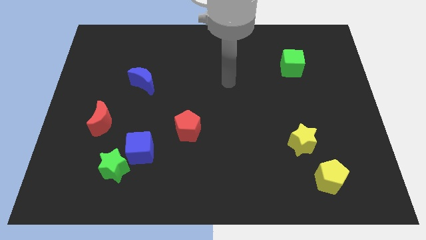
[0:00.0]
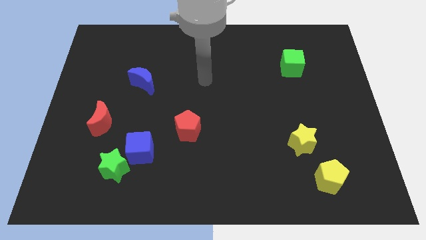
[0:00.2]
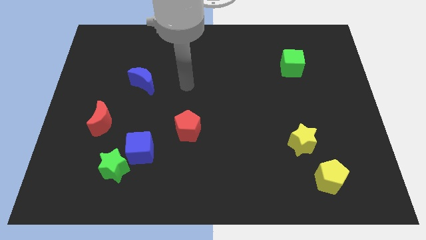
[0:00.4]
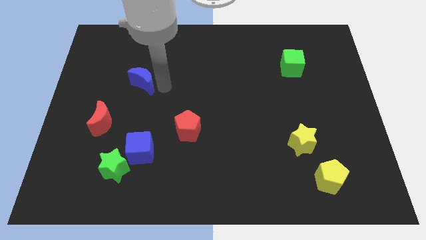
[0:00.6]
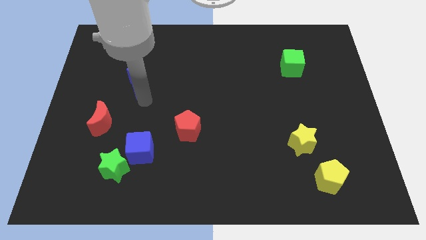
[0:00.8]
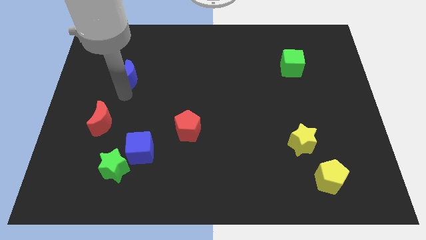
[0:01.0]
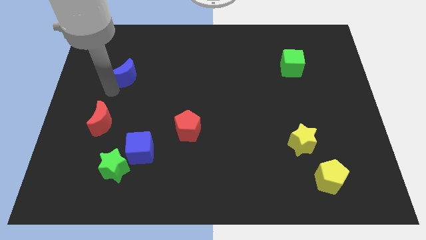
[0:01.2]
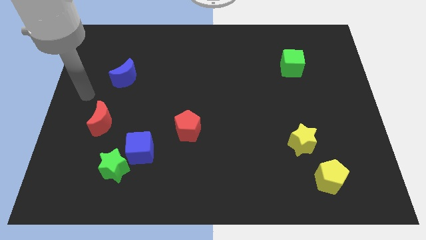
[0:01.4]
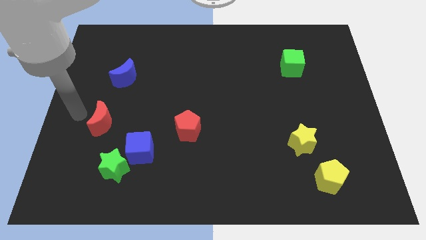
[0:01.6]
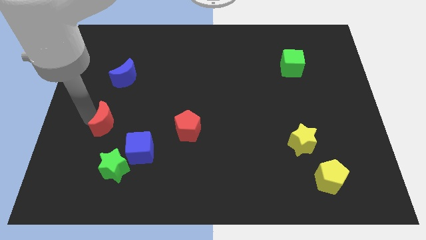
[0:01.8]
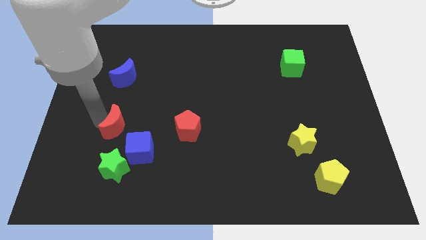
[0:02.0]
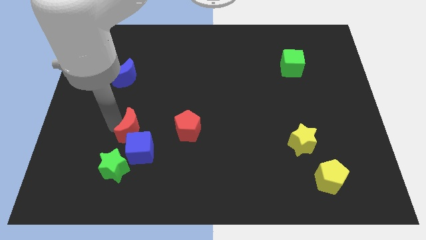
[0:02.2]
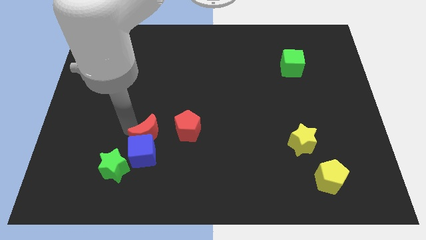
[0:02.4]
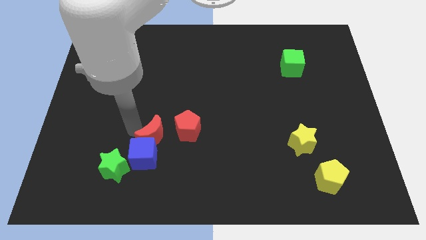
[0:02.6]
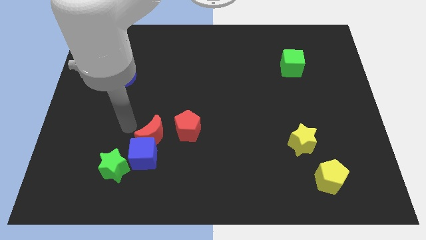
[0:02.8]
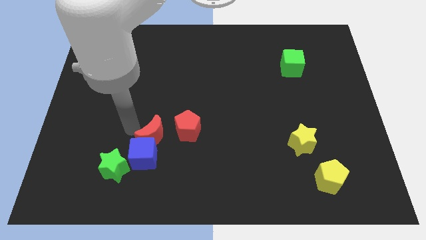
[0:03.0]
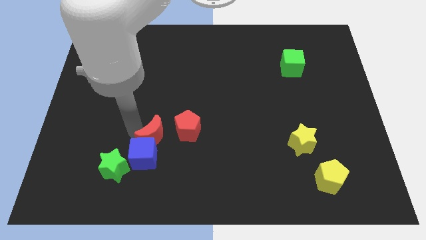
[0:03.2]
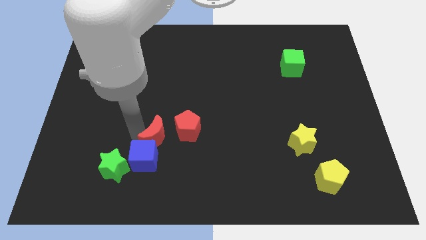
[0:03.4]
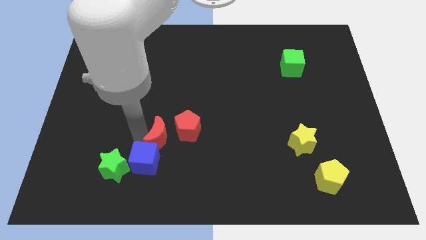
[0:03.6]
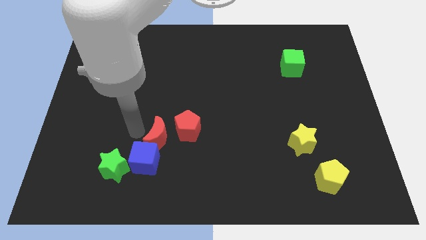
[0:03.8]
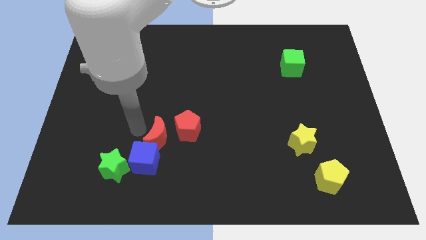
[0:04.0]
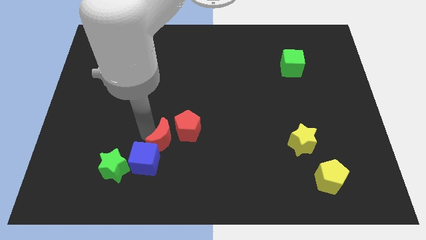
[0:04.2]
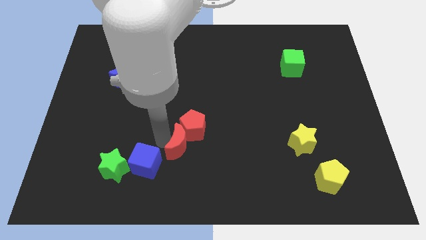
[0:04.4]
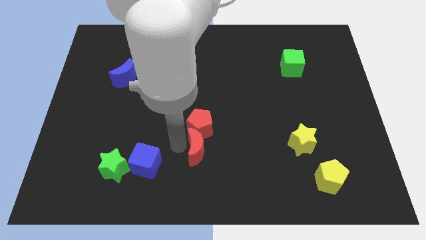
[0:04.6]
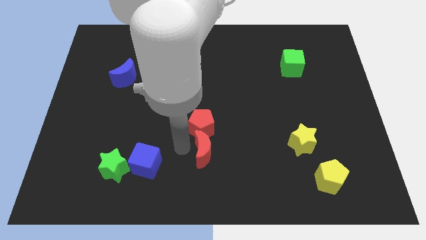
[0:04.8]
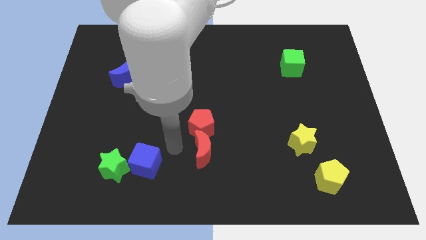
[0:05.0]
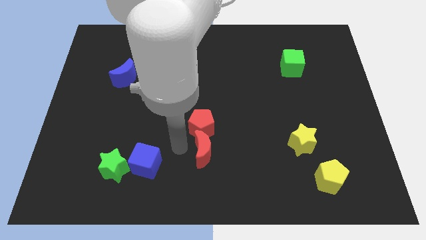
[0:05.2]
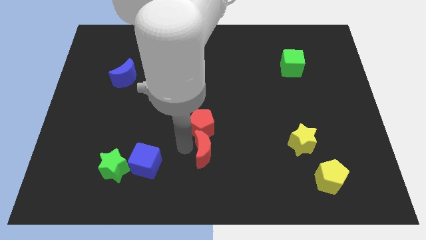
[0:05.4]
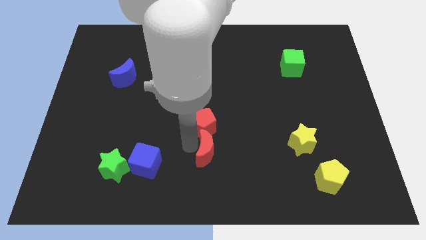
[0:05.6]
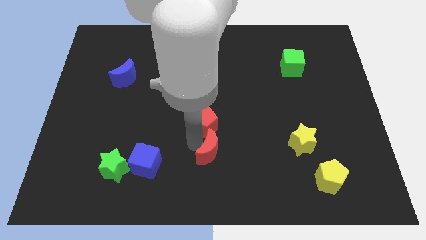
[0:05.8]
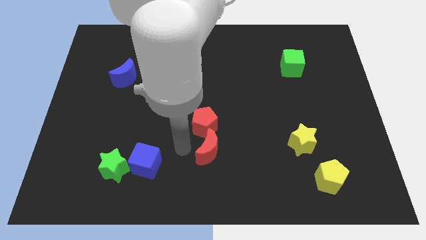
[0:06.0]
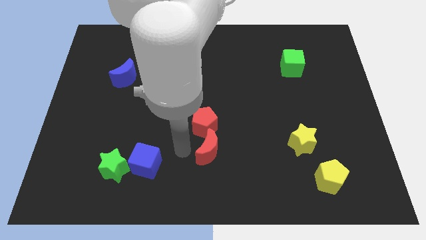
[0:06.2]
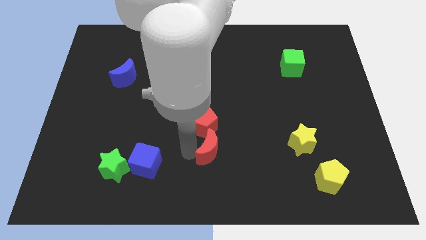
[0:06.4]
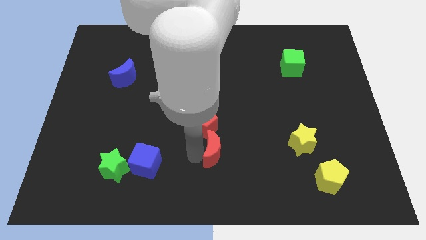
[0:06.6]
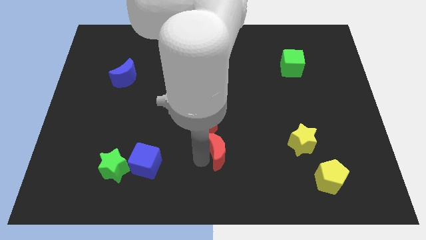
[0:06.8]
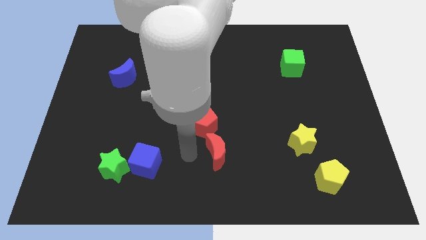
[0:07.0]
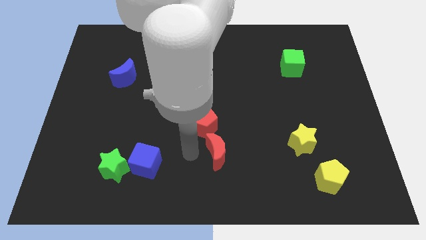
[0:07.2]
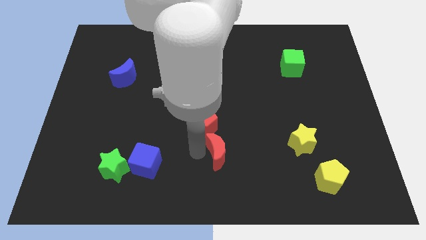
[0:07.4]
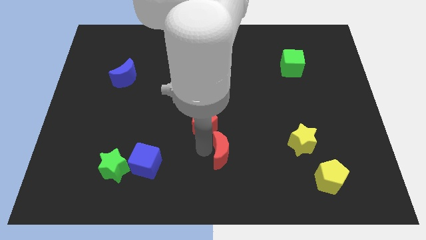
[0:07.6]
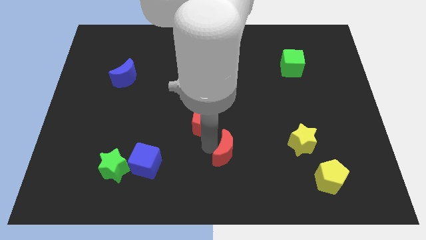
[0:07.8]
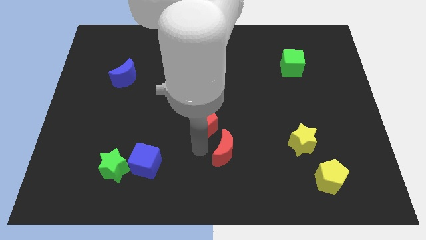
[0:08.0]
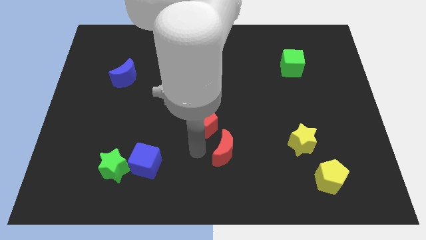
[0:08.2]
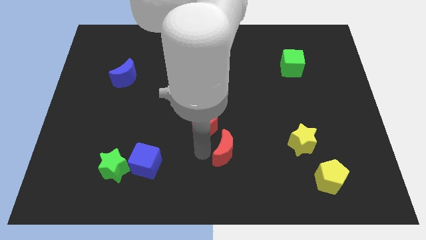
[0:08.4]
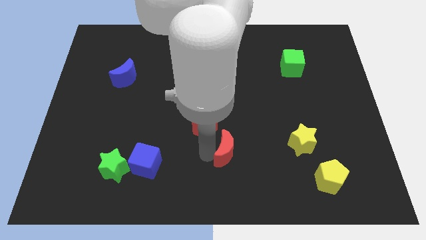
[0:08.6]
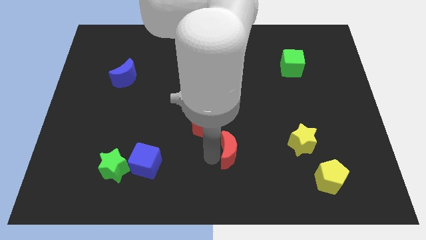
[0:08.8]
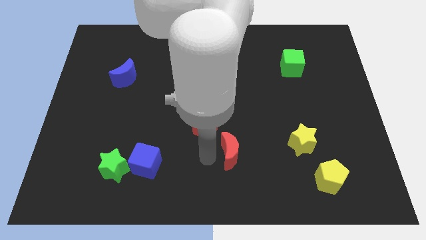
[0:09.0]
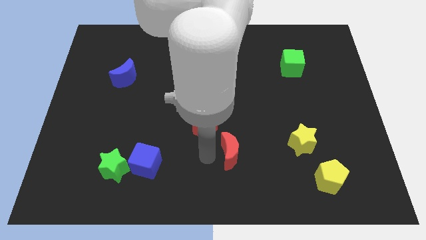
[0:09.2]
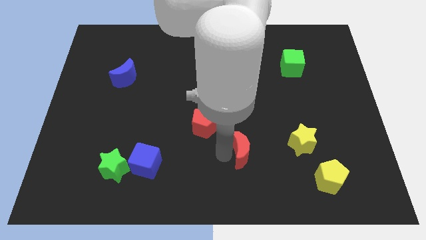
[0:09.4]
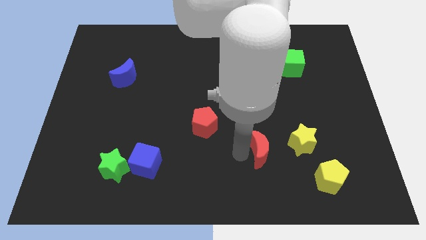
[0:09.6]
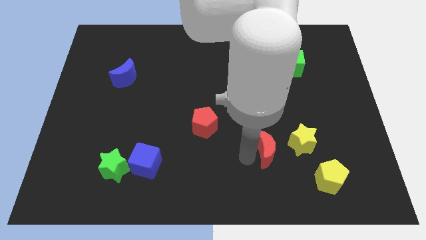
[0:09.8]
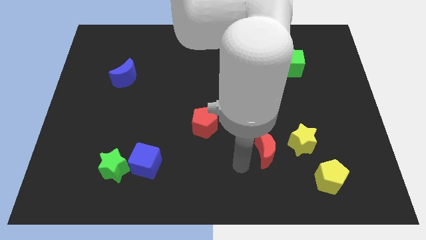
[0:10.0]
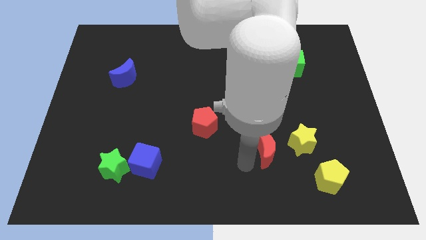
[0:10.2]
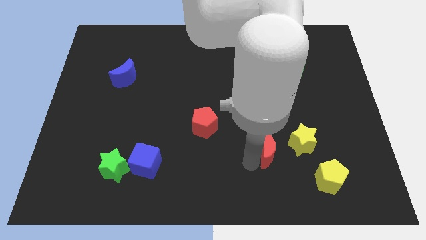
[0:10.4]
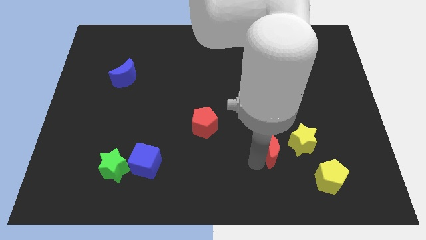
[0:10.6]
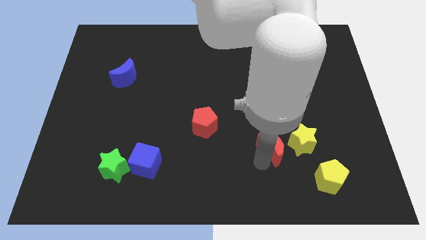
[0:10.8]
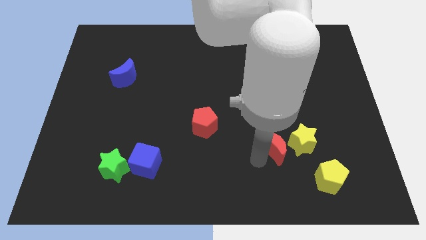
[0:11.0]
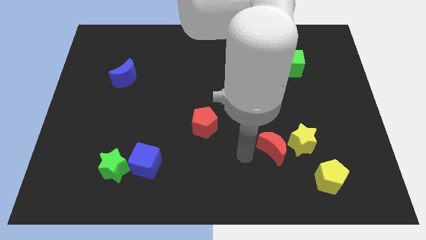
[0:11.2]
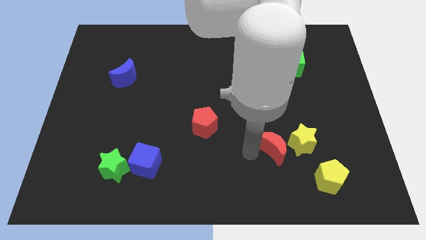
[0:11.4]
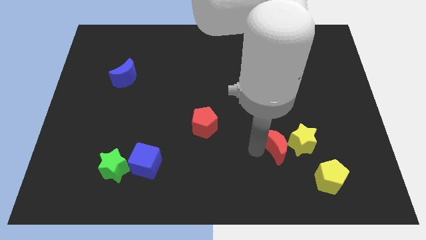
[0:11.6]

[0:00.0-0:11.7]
move the red moon next to the yellow star

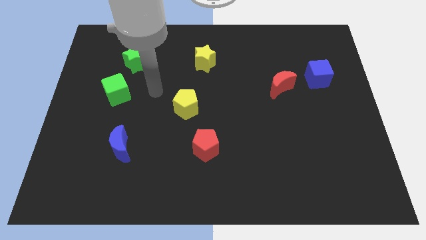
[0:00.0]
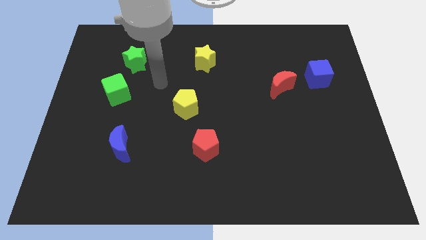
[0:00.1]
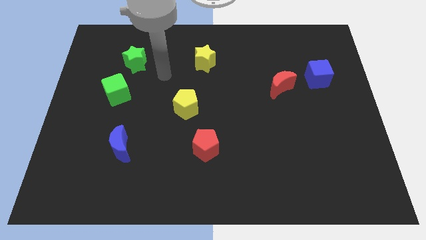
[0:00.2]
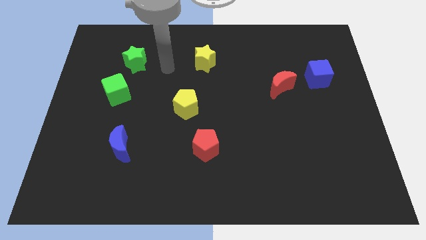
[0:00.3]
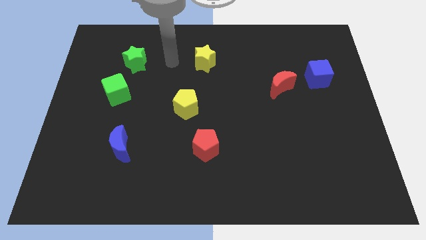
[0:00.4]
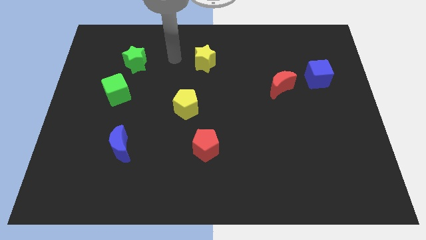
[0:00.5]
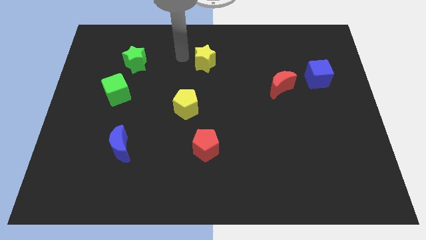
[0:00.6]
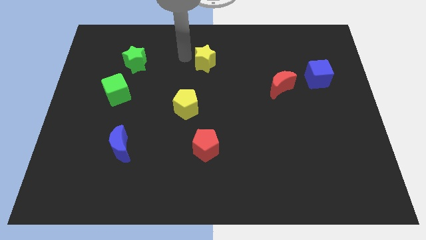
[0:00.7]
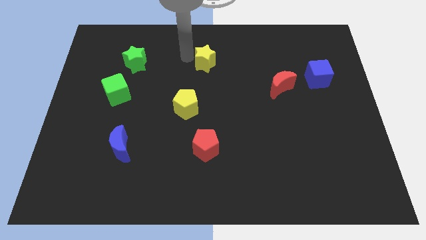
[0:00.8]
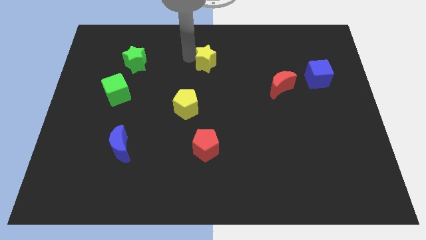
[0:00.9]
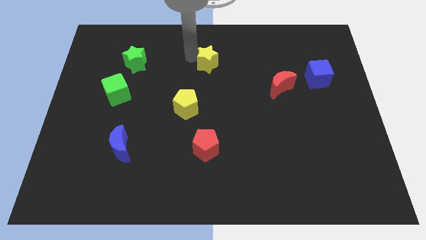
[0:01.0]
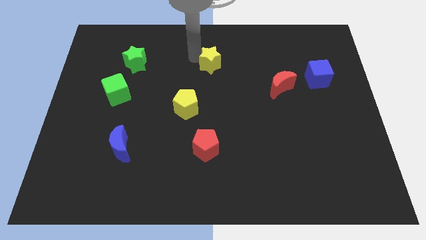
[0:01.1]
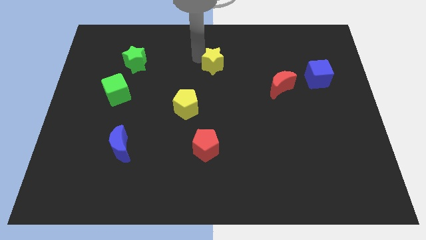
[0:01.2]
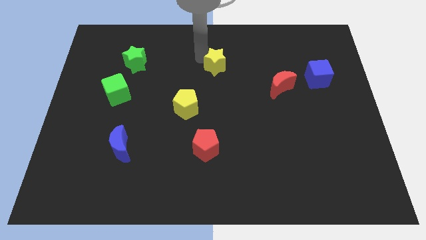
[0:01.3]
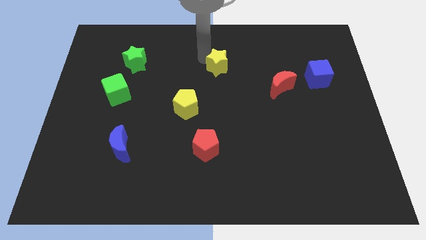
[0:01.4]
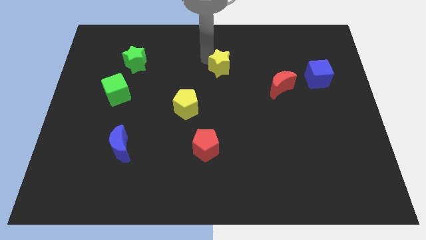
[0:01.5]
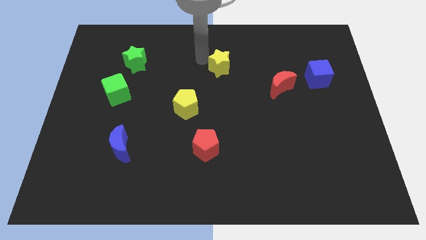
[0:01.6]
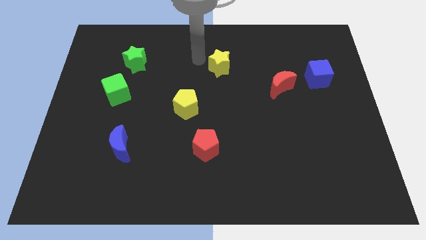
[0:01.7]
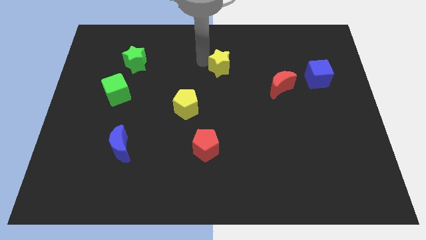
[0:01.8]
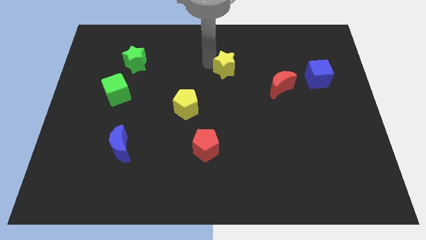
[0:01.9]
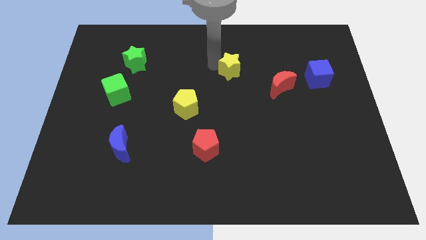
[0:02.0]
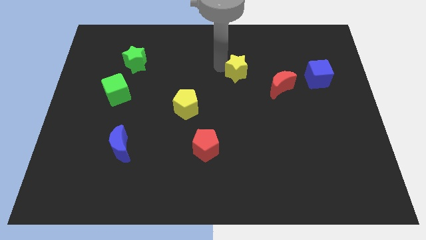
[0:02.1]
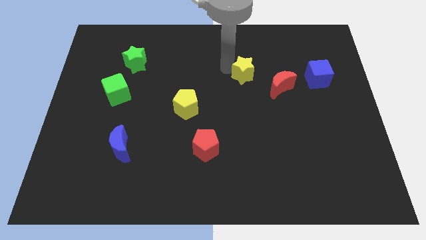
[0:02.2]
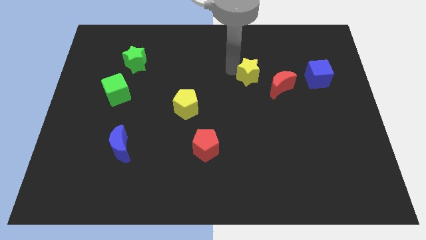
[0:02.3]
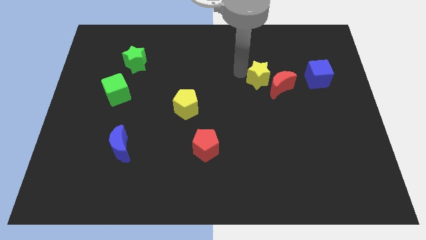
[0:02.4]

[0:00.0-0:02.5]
put the yellow star close to the red moon
